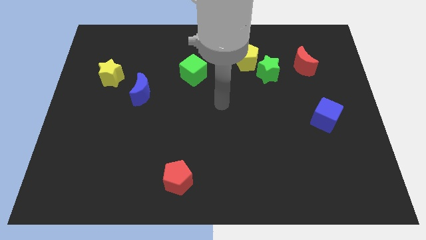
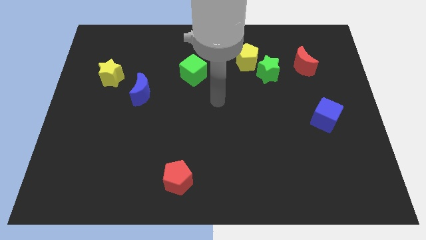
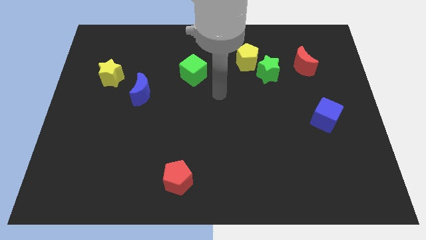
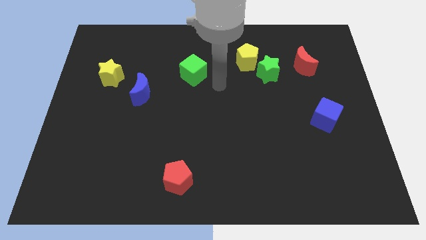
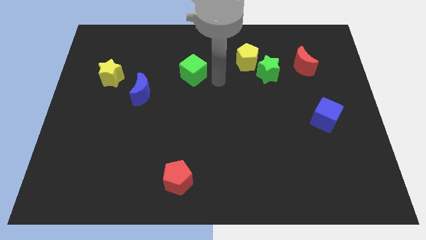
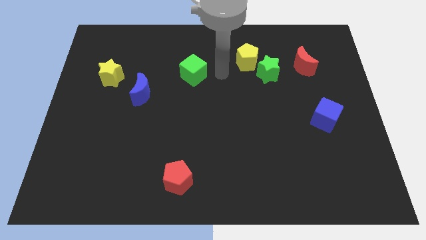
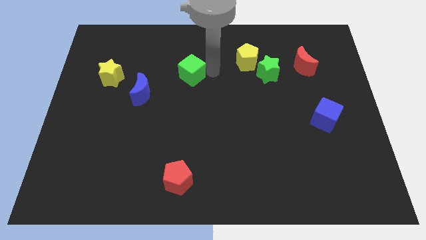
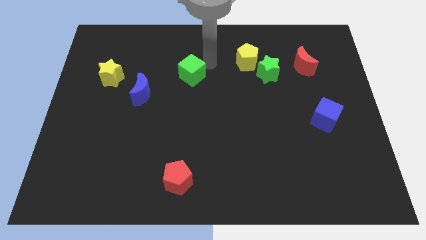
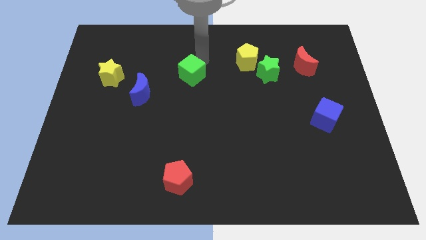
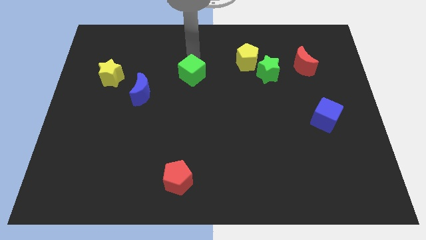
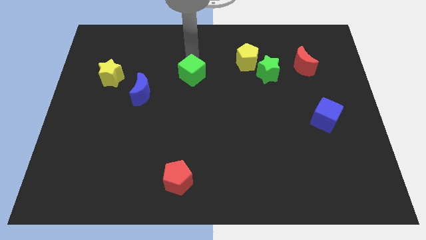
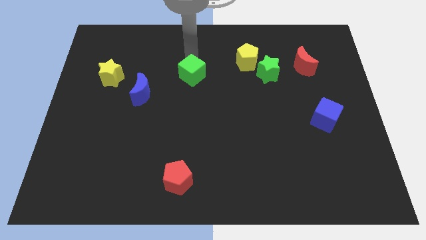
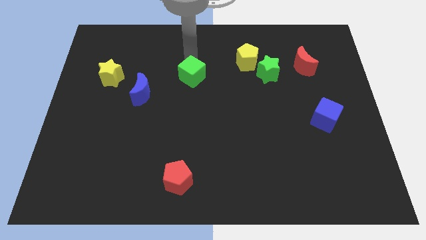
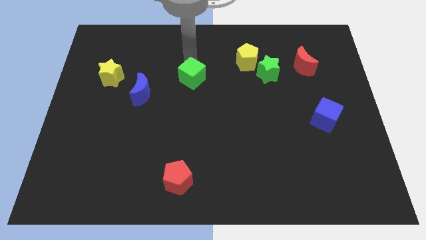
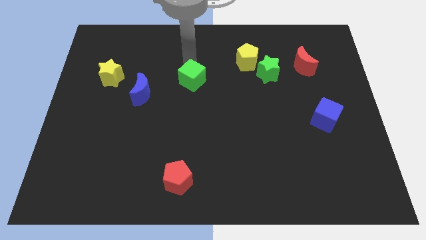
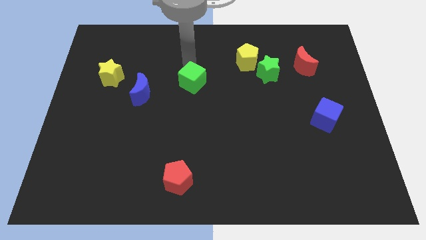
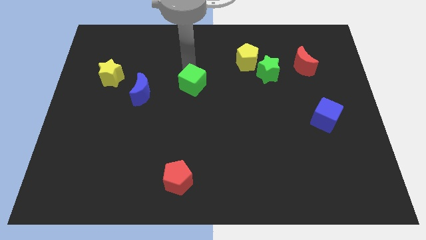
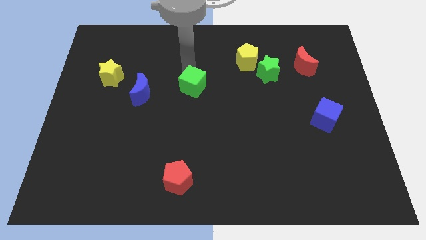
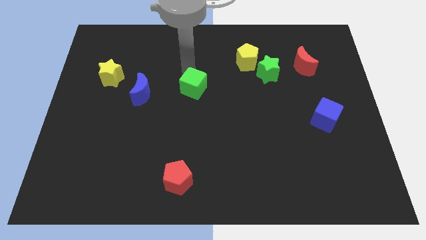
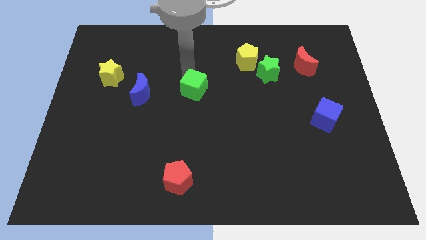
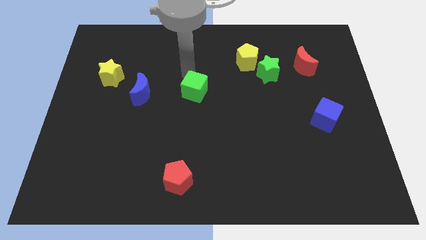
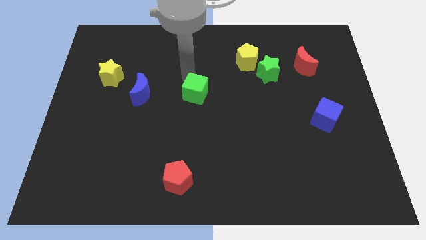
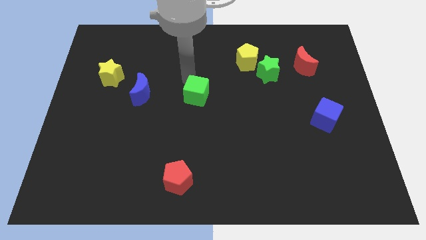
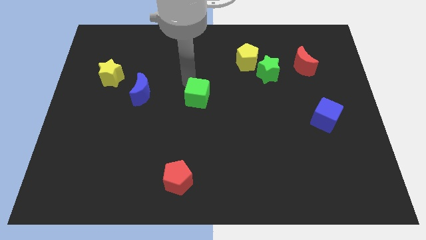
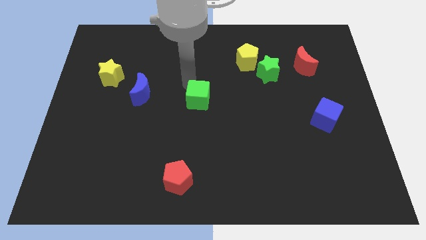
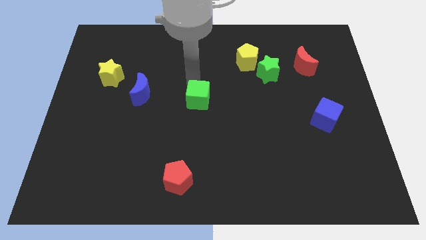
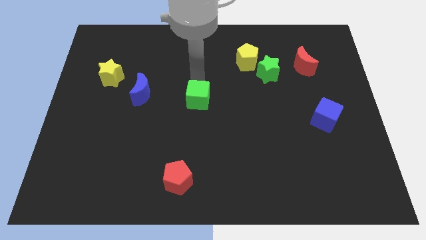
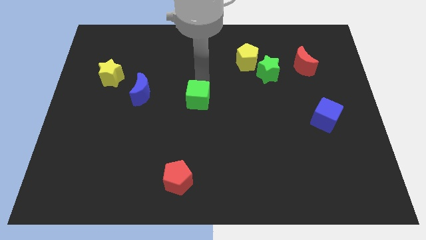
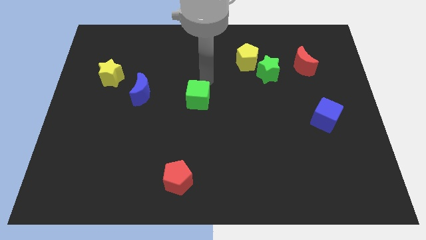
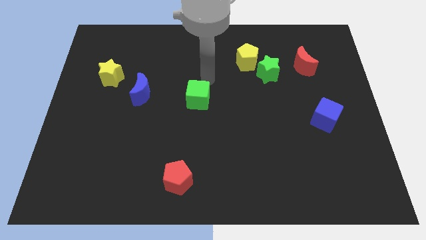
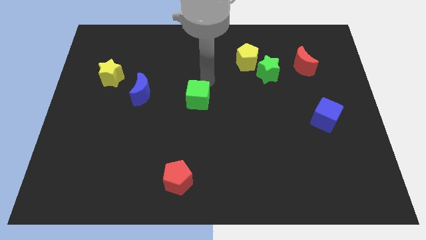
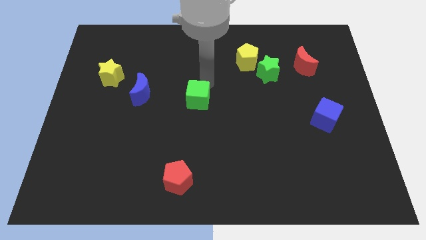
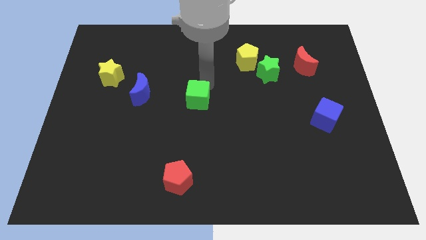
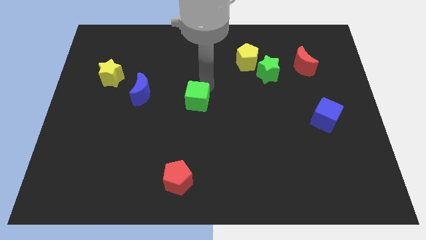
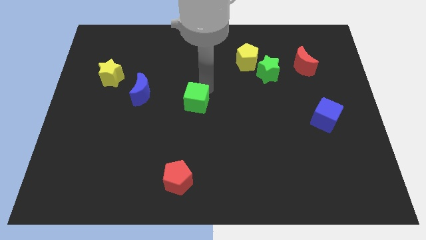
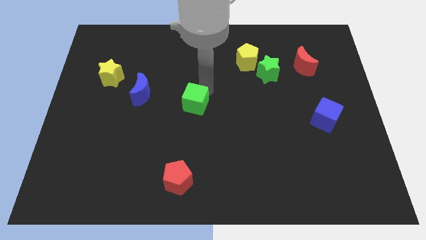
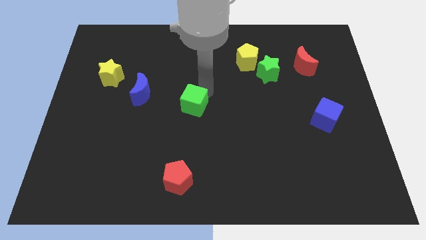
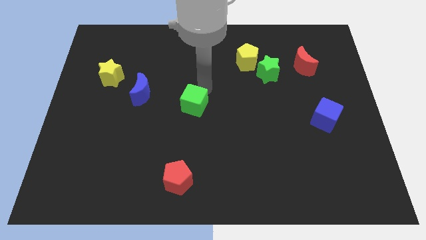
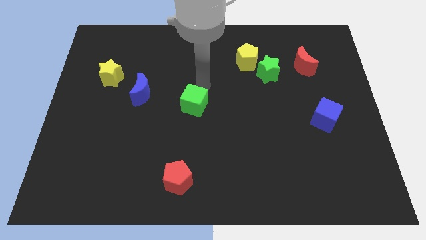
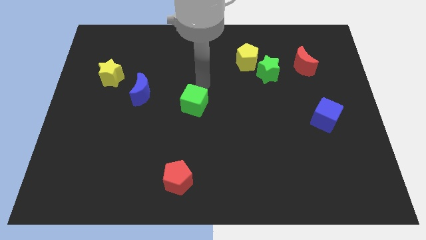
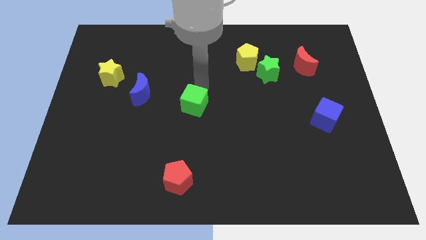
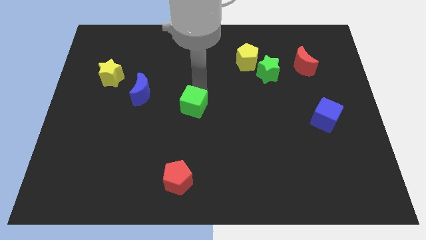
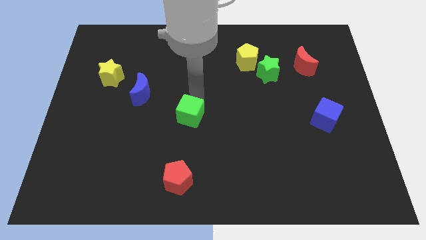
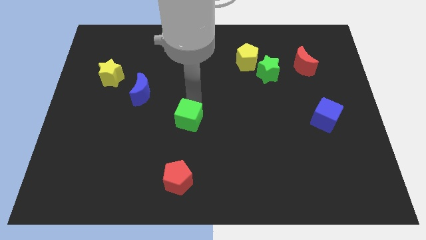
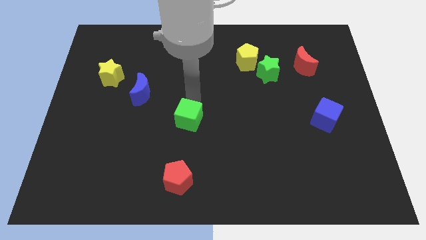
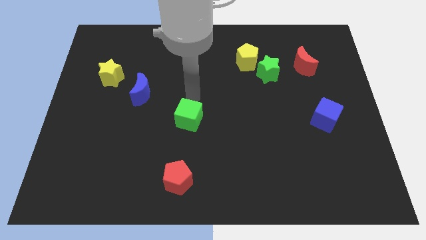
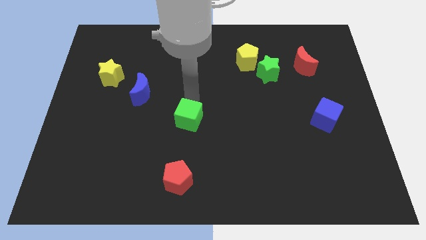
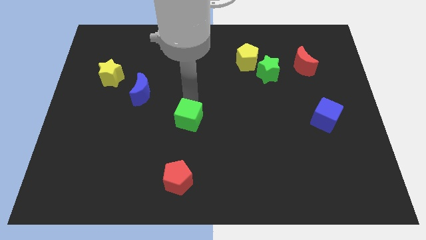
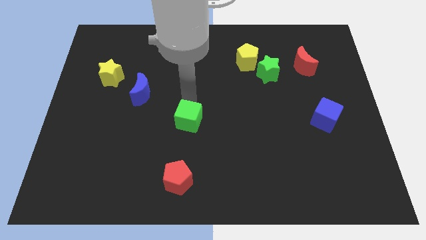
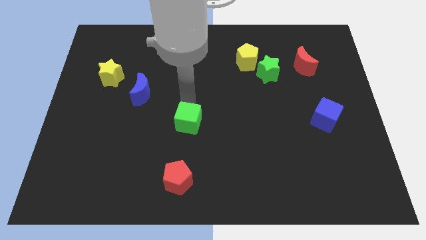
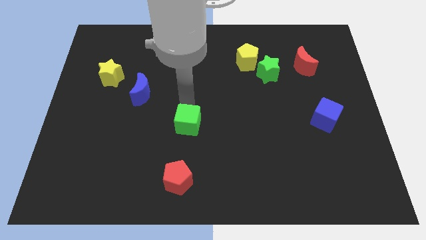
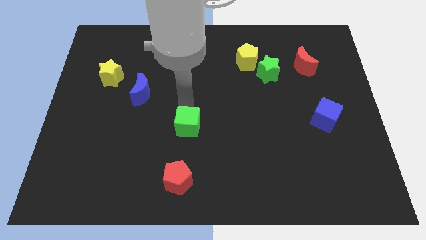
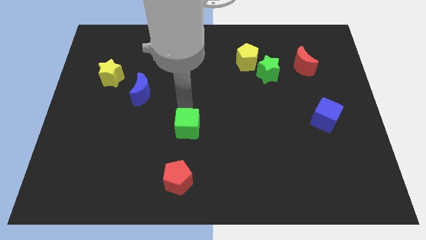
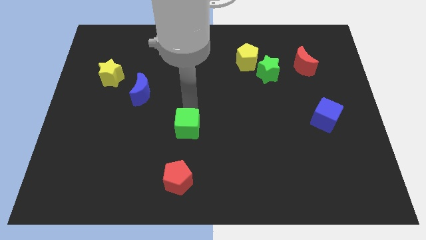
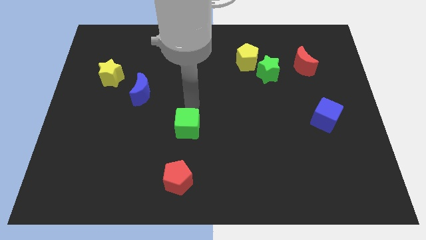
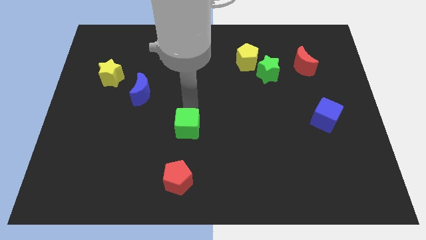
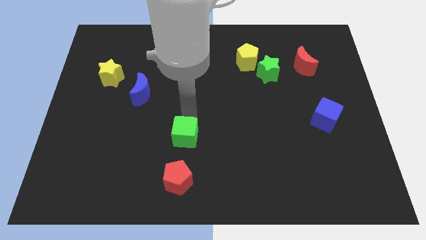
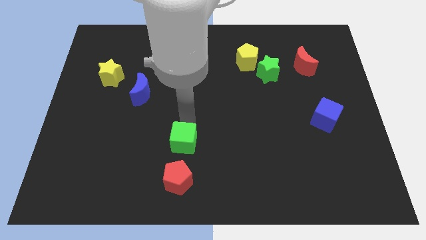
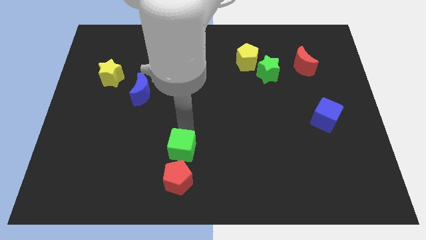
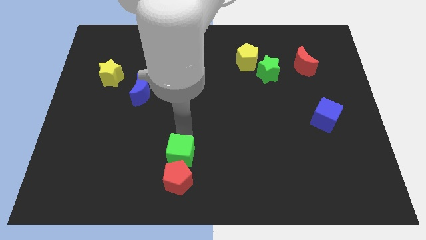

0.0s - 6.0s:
push the green cube next to the red pentagon
